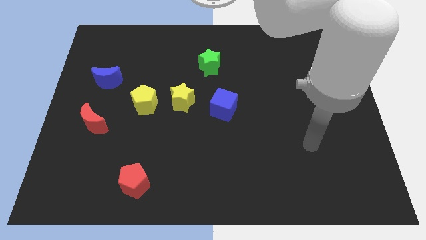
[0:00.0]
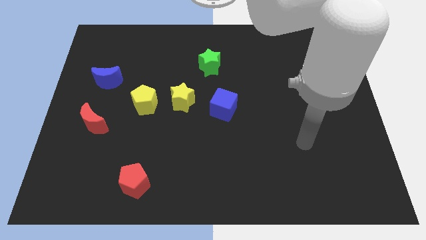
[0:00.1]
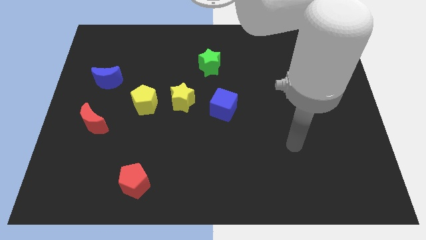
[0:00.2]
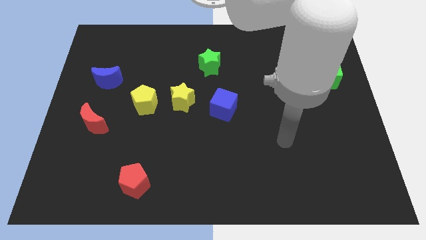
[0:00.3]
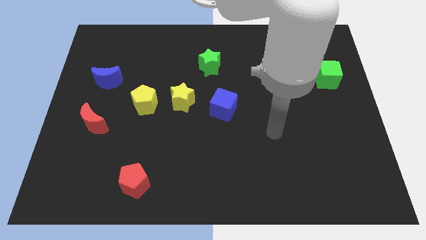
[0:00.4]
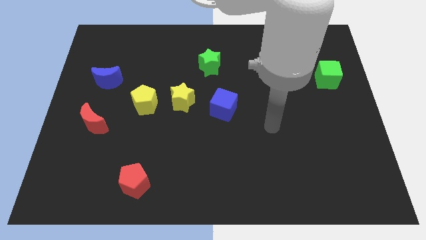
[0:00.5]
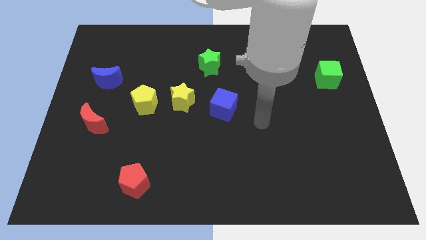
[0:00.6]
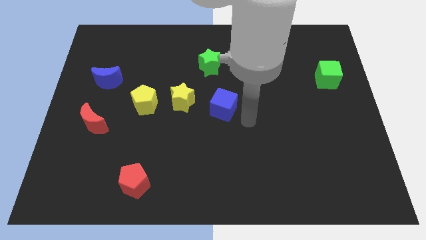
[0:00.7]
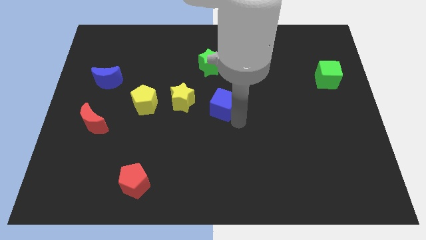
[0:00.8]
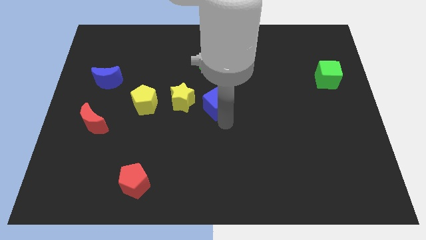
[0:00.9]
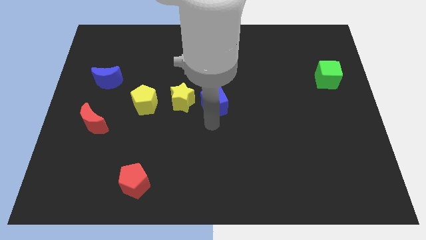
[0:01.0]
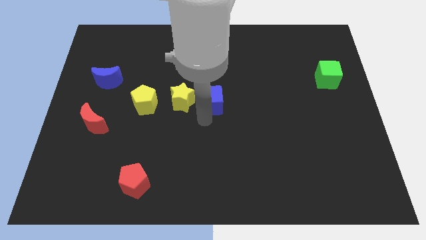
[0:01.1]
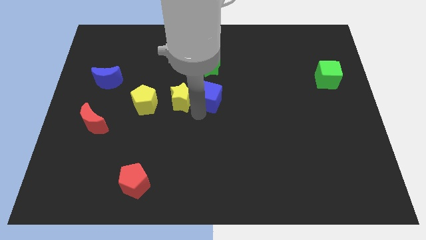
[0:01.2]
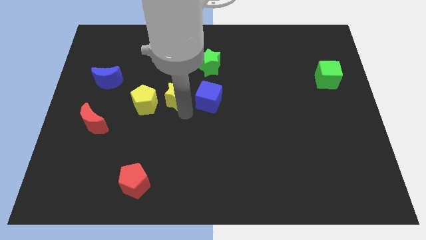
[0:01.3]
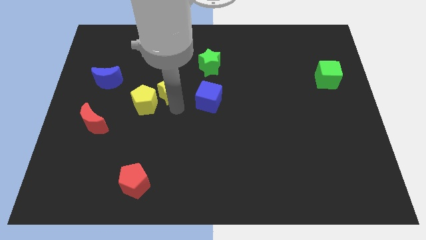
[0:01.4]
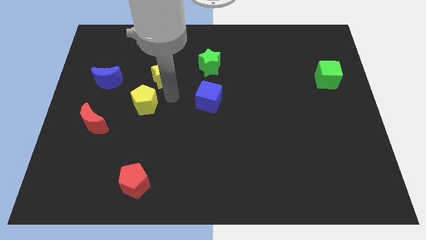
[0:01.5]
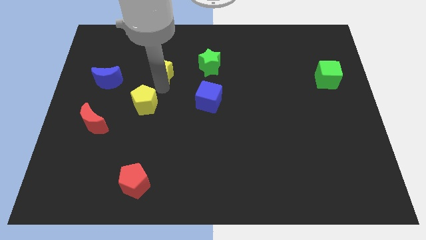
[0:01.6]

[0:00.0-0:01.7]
pull the yellow pentagon apart from the yellow star

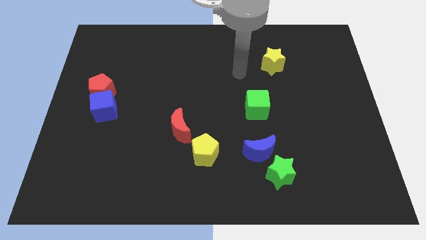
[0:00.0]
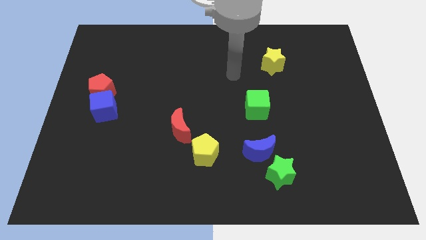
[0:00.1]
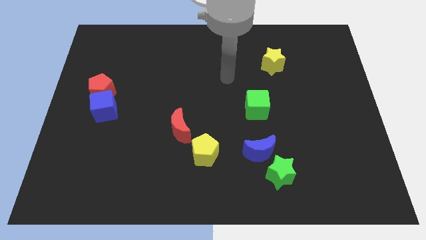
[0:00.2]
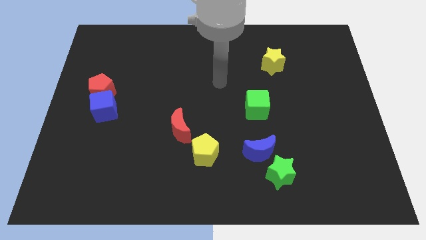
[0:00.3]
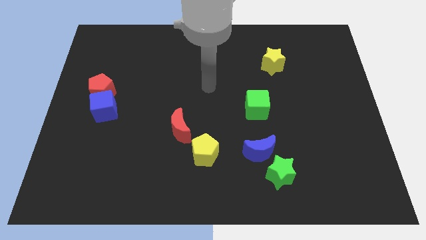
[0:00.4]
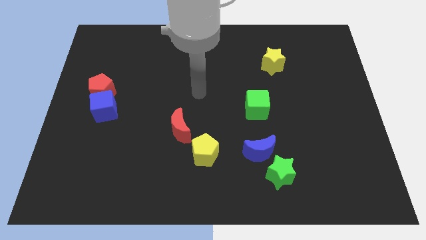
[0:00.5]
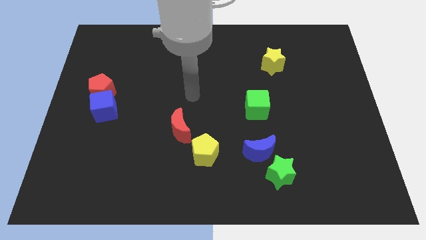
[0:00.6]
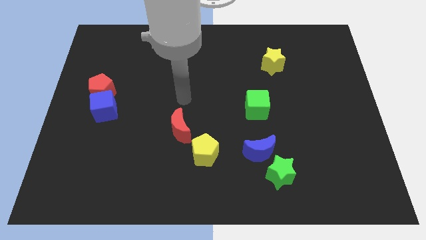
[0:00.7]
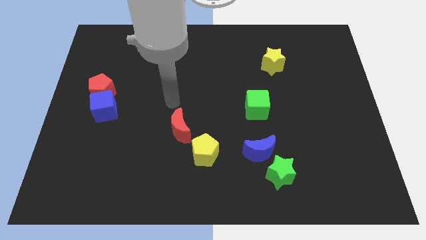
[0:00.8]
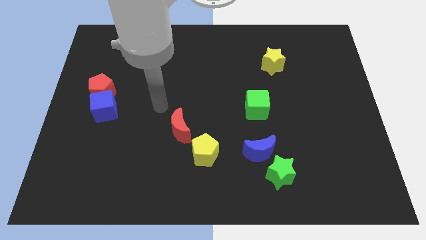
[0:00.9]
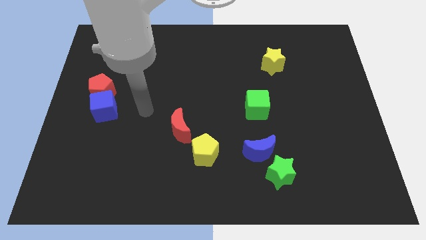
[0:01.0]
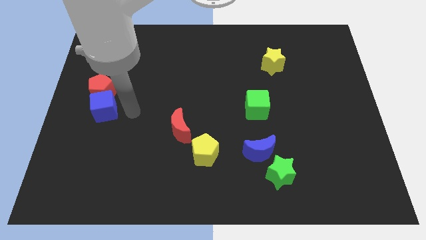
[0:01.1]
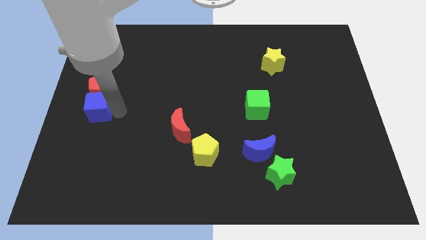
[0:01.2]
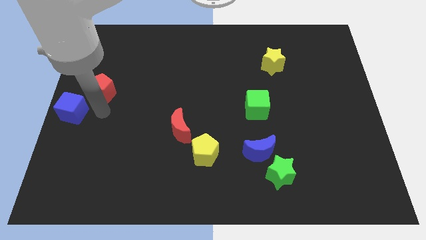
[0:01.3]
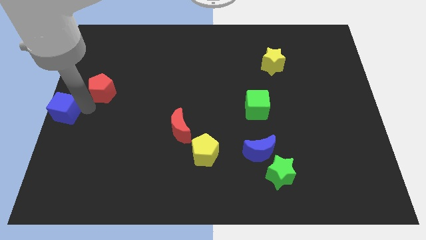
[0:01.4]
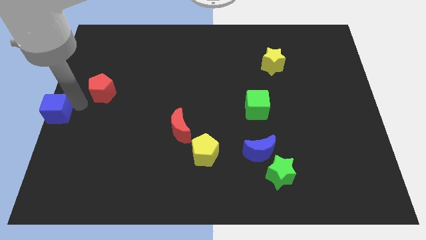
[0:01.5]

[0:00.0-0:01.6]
pull the red pentagon apart from the blue cube

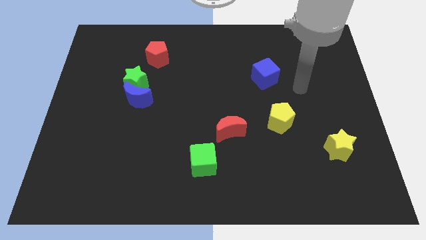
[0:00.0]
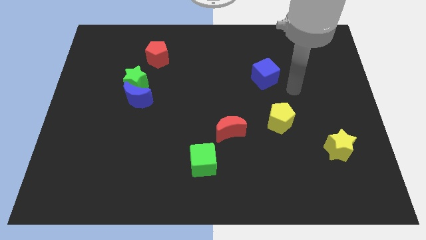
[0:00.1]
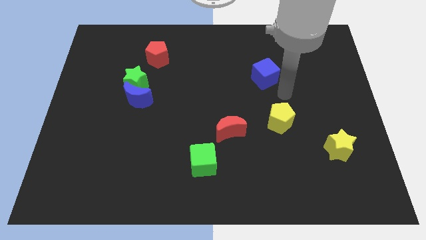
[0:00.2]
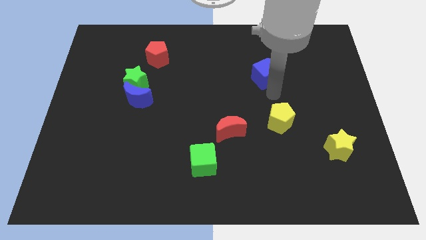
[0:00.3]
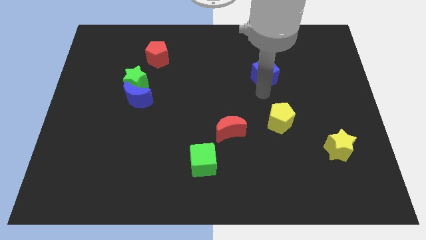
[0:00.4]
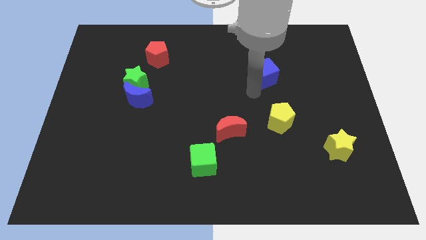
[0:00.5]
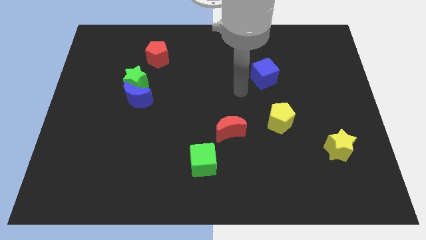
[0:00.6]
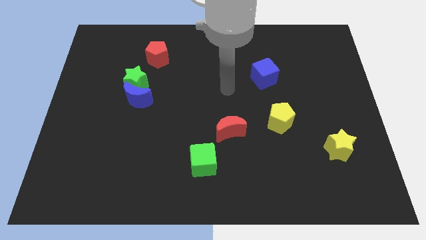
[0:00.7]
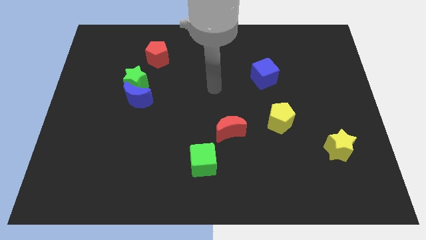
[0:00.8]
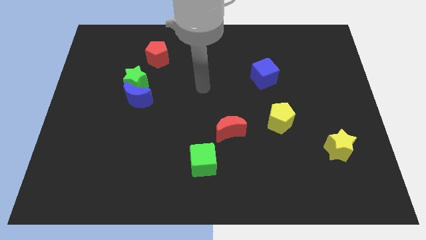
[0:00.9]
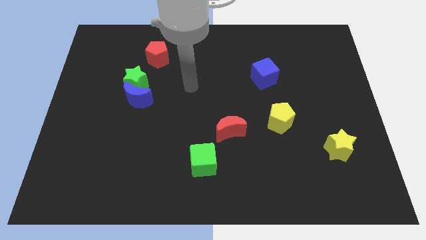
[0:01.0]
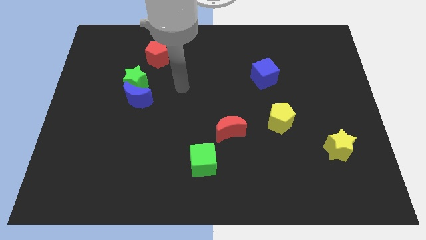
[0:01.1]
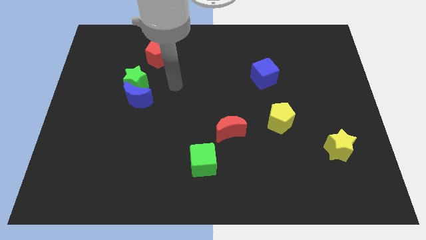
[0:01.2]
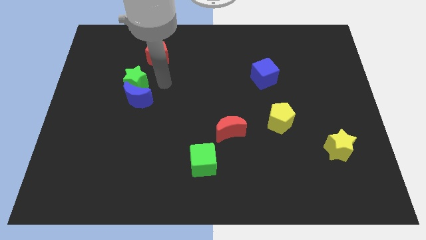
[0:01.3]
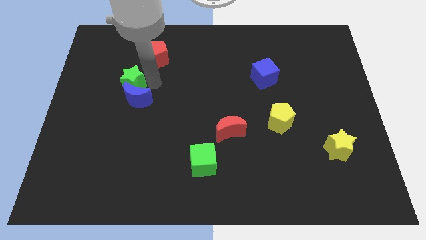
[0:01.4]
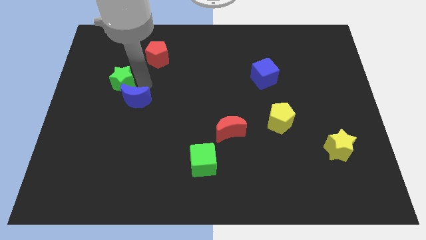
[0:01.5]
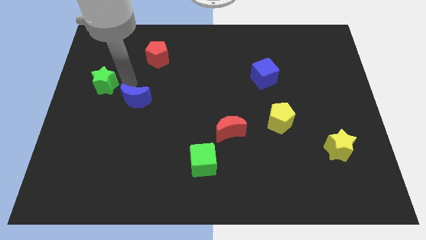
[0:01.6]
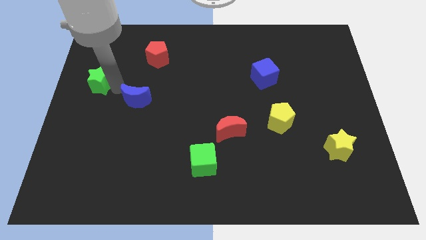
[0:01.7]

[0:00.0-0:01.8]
move the blue moon away from the green star

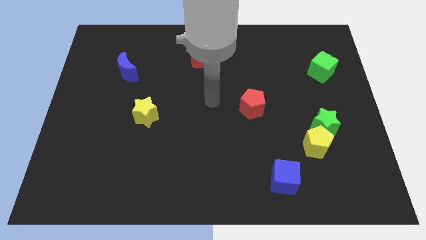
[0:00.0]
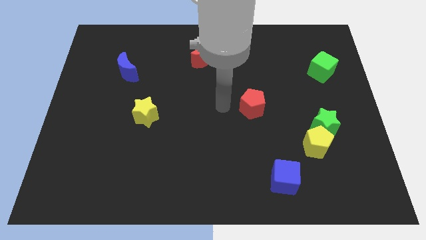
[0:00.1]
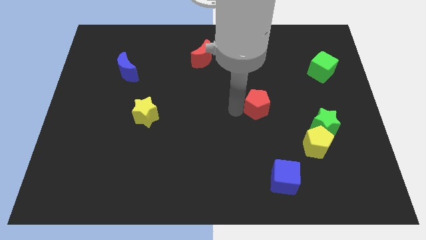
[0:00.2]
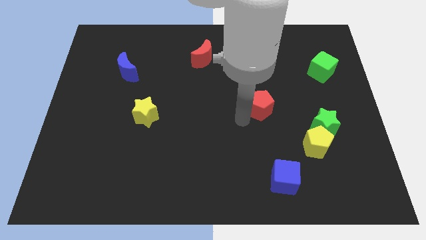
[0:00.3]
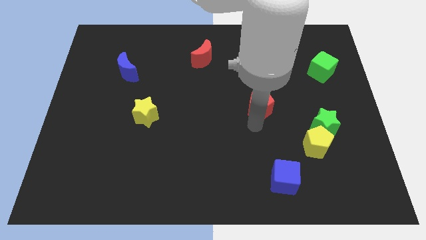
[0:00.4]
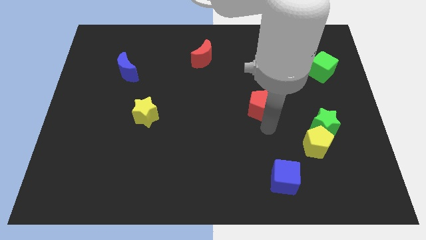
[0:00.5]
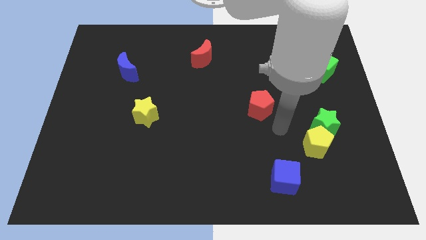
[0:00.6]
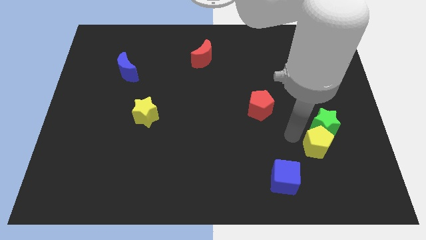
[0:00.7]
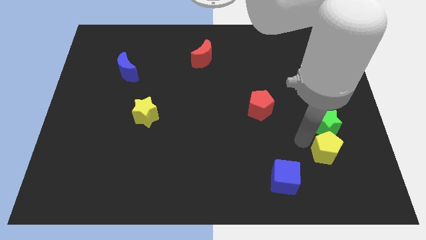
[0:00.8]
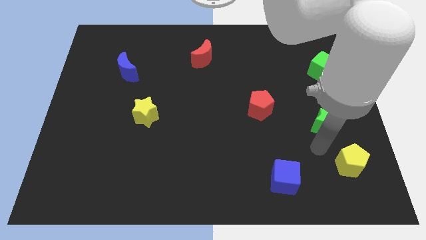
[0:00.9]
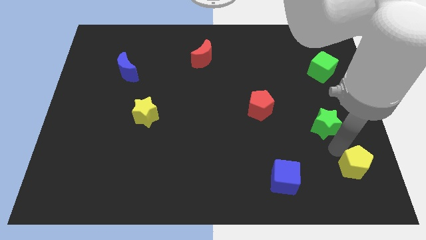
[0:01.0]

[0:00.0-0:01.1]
pull the green star apart from the yellow pentagon

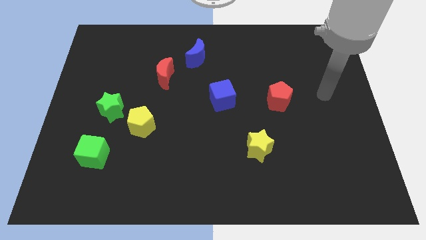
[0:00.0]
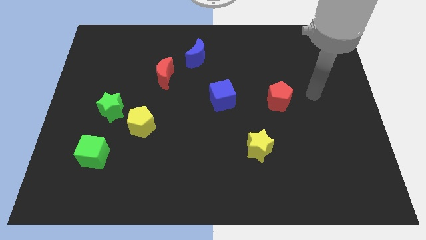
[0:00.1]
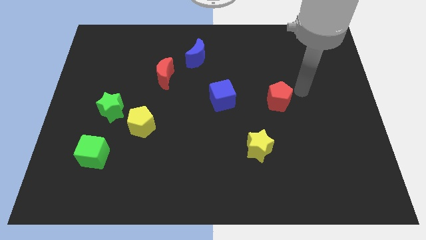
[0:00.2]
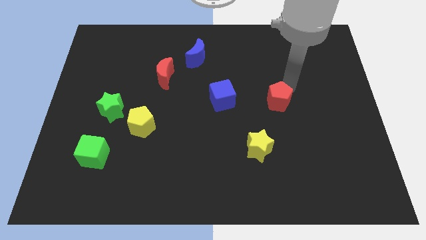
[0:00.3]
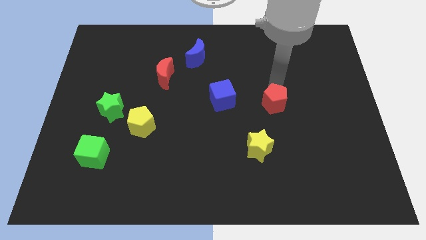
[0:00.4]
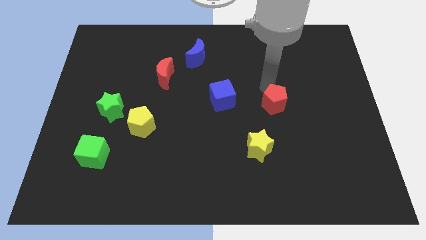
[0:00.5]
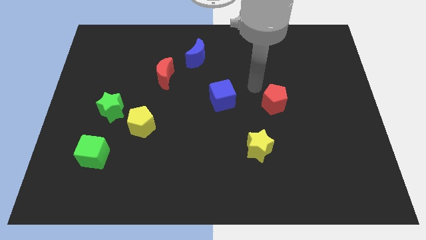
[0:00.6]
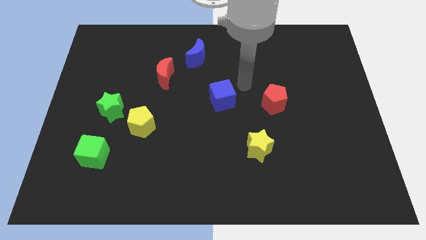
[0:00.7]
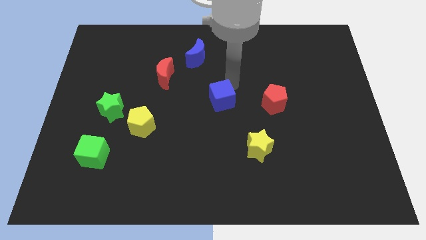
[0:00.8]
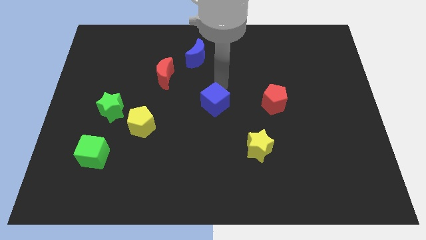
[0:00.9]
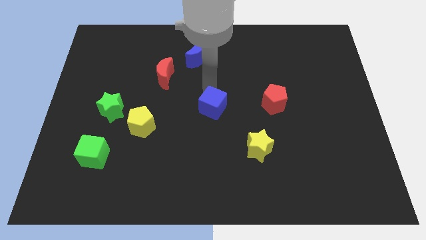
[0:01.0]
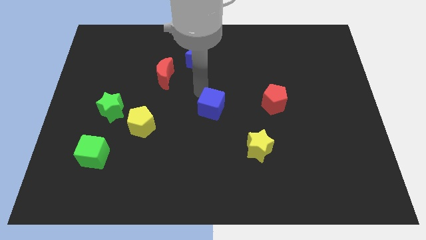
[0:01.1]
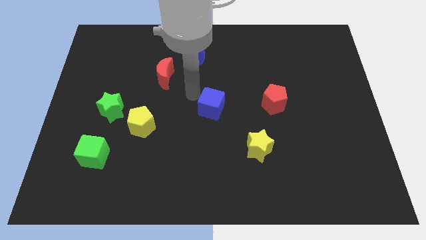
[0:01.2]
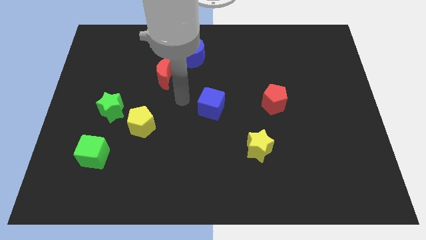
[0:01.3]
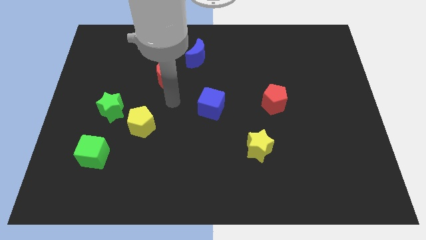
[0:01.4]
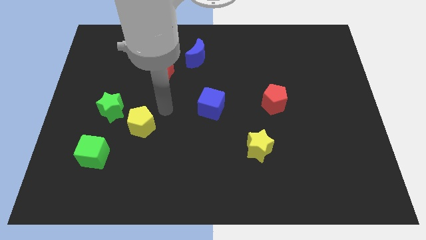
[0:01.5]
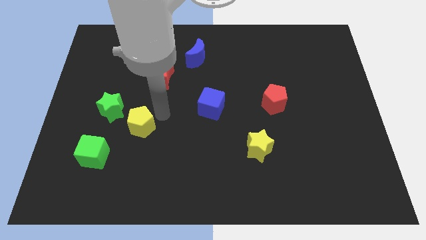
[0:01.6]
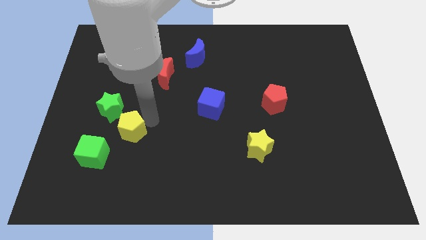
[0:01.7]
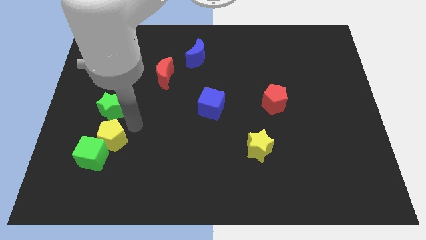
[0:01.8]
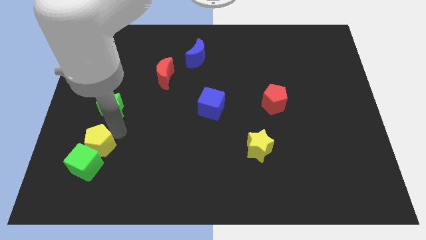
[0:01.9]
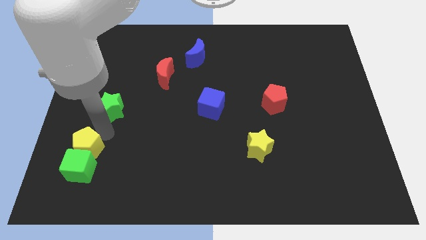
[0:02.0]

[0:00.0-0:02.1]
separate the green star from the yellow pentagon

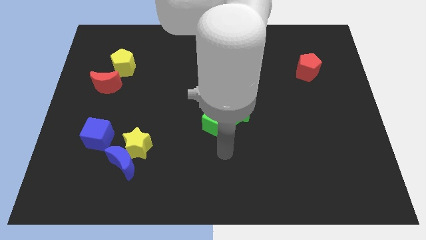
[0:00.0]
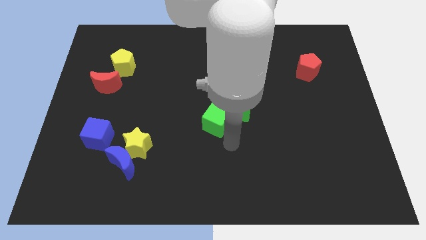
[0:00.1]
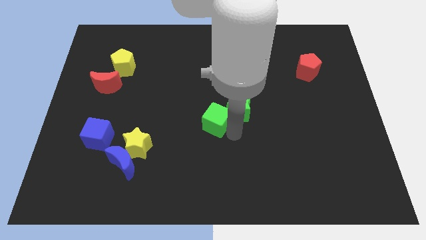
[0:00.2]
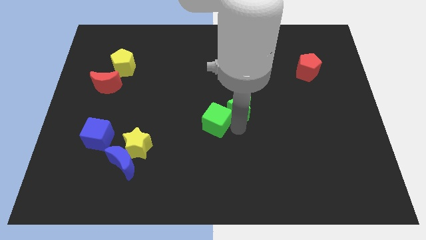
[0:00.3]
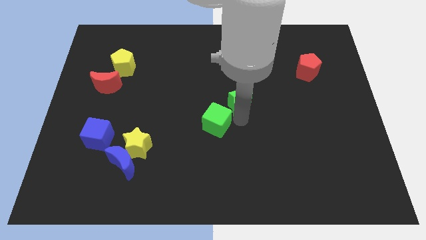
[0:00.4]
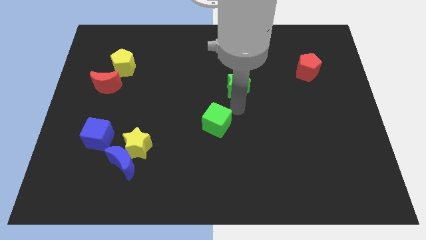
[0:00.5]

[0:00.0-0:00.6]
move the green cube away from the green star

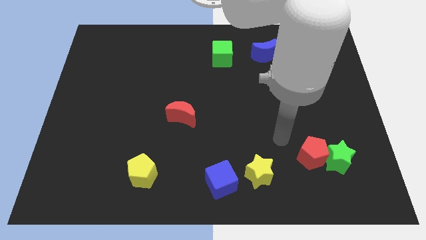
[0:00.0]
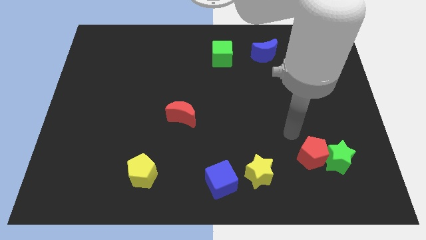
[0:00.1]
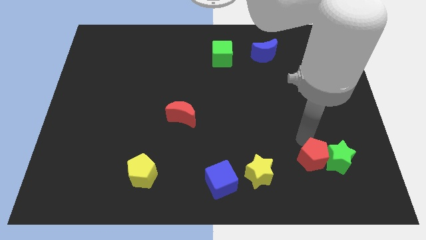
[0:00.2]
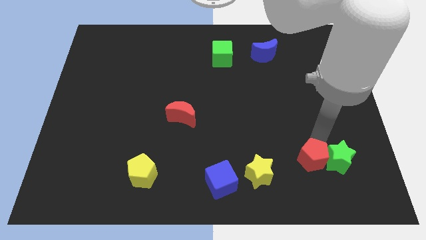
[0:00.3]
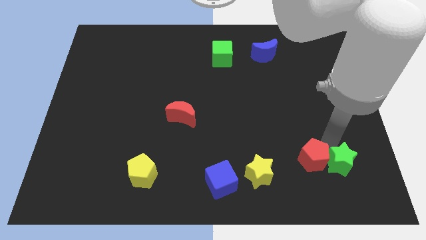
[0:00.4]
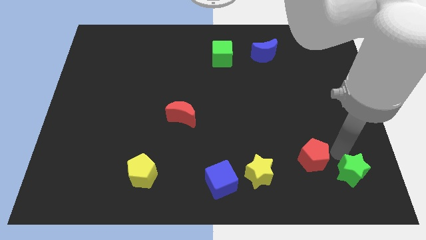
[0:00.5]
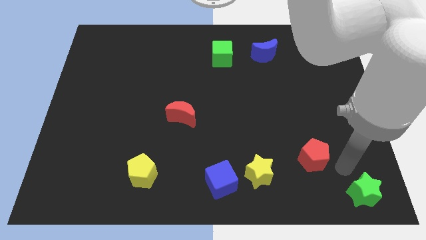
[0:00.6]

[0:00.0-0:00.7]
pull the red pentagon apart from the green star
